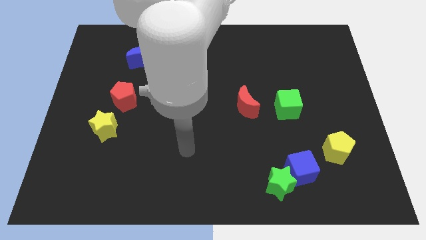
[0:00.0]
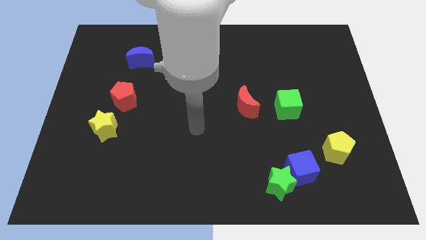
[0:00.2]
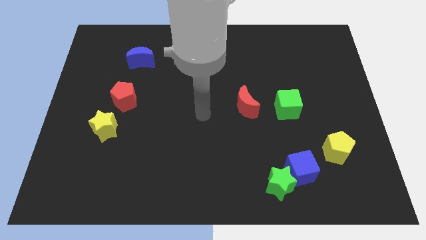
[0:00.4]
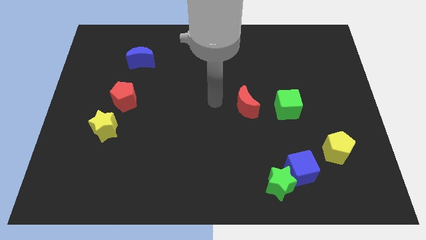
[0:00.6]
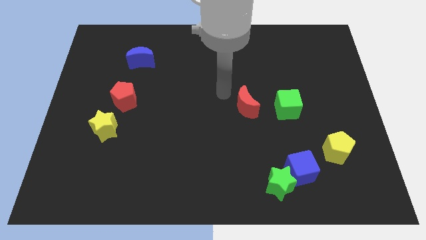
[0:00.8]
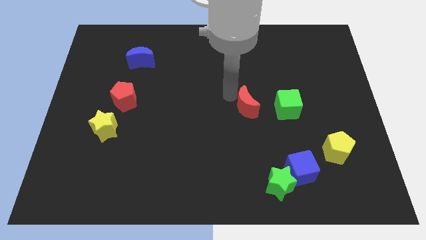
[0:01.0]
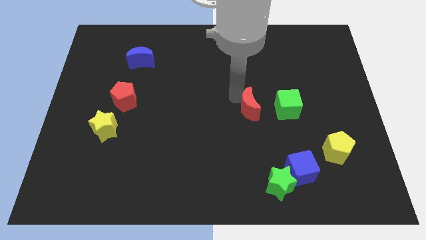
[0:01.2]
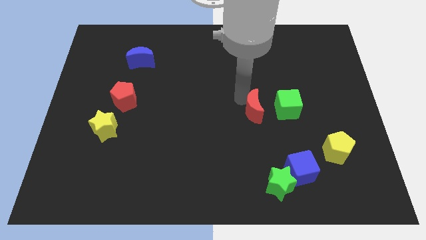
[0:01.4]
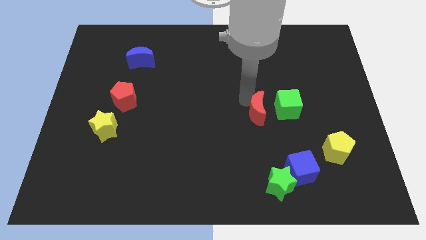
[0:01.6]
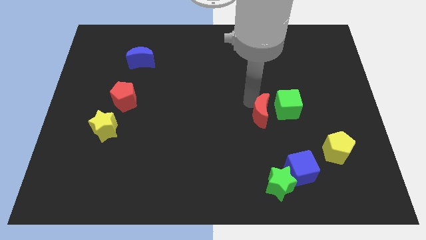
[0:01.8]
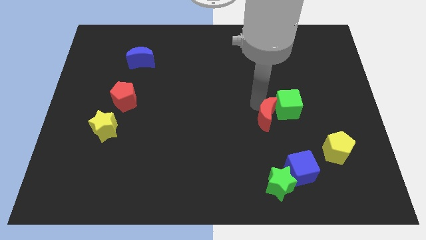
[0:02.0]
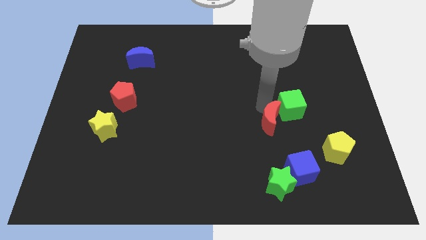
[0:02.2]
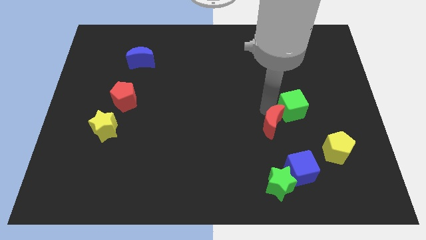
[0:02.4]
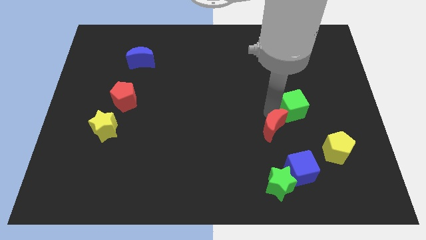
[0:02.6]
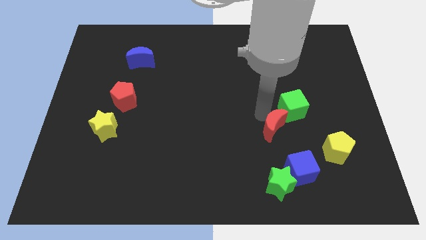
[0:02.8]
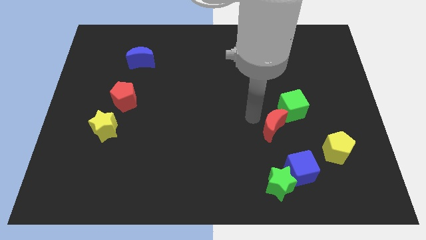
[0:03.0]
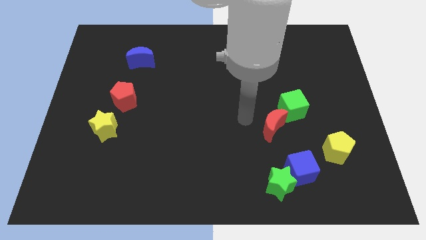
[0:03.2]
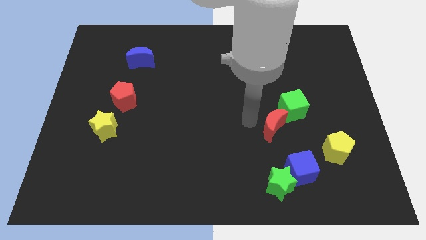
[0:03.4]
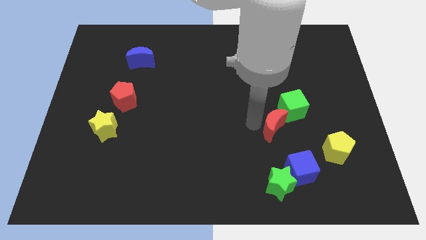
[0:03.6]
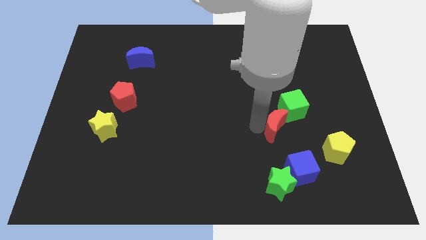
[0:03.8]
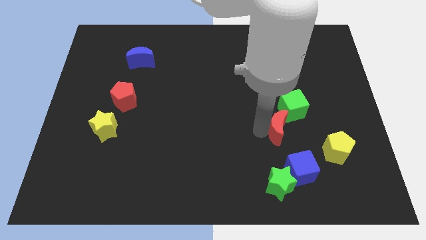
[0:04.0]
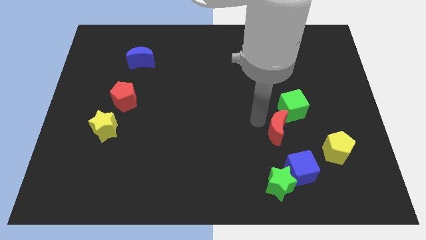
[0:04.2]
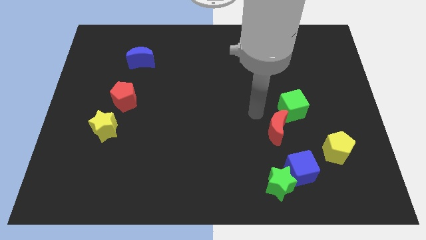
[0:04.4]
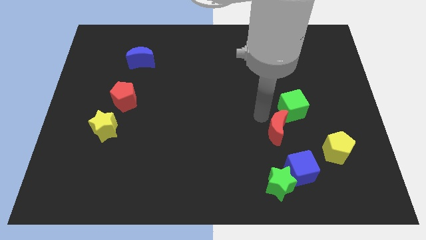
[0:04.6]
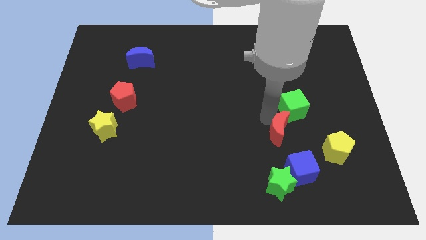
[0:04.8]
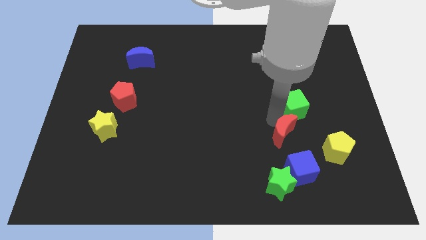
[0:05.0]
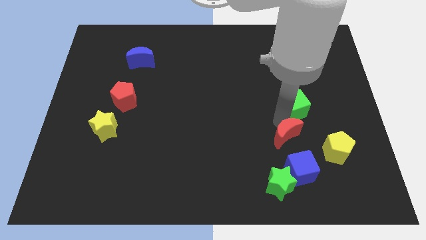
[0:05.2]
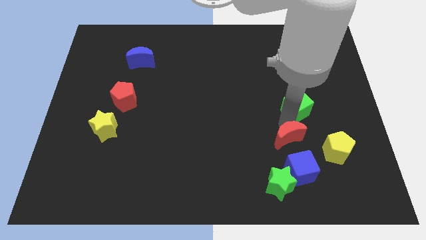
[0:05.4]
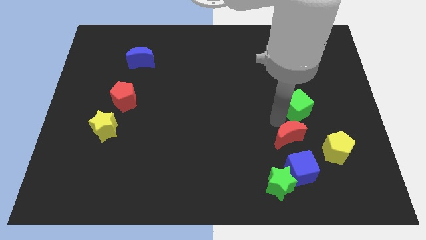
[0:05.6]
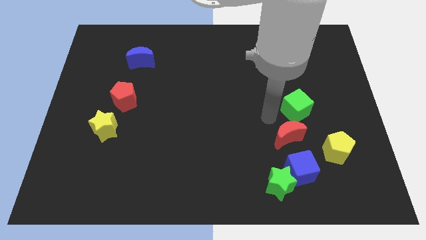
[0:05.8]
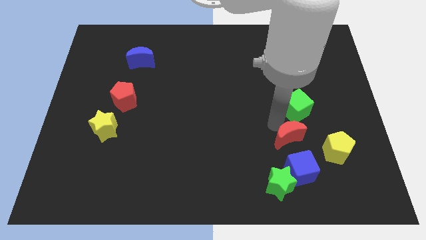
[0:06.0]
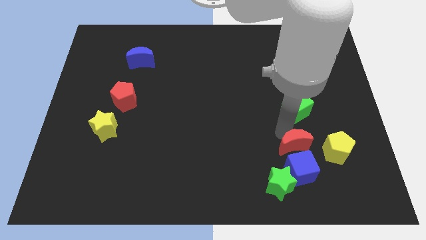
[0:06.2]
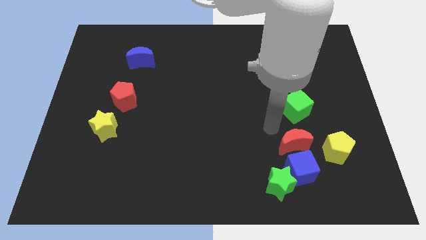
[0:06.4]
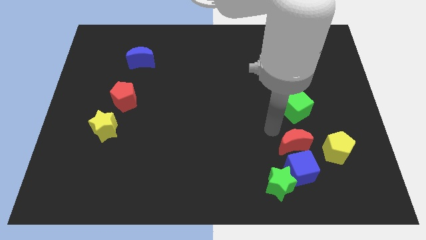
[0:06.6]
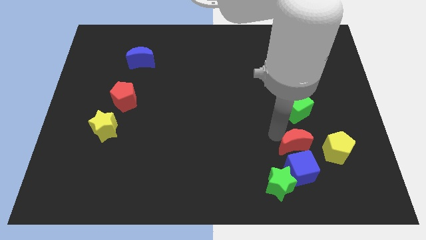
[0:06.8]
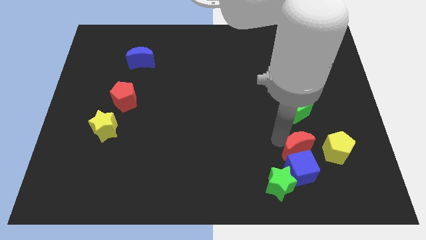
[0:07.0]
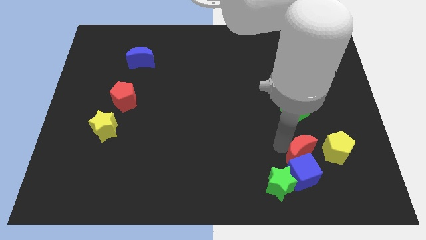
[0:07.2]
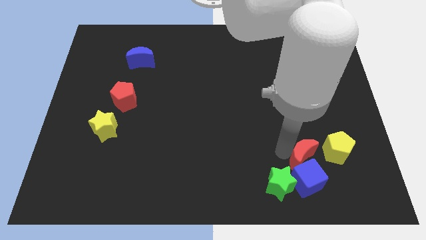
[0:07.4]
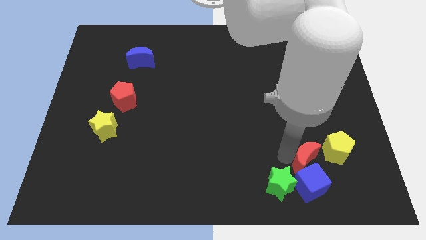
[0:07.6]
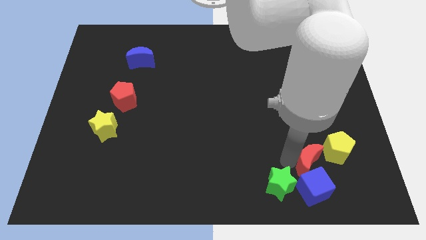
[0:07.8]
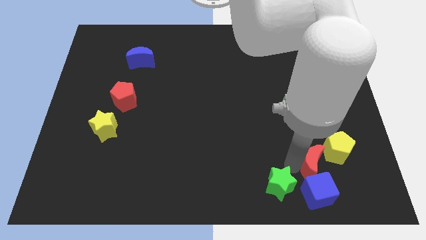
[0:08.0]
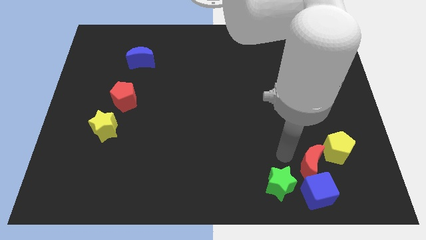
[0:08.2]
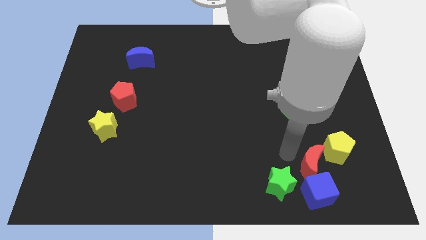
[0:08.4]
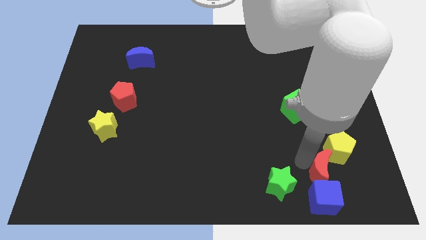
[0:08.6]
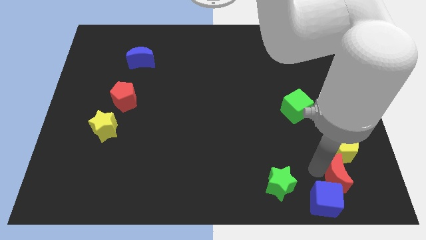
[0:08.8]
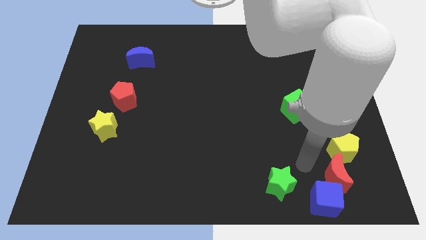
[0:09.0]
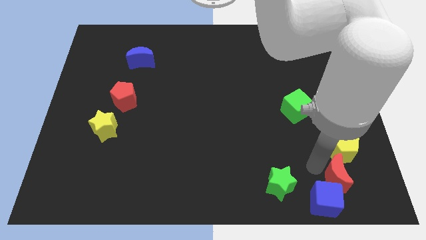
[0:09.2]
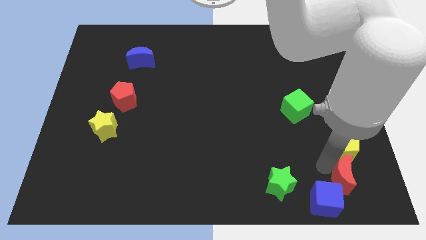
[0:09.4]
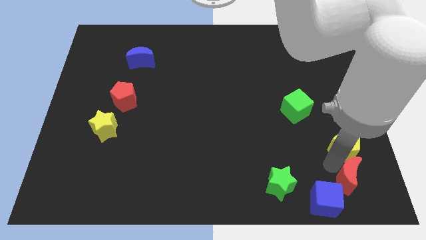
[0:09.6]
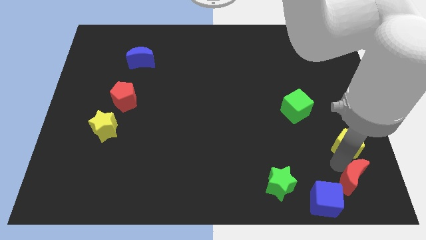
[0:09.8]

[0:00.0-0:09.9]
put the red moon to the lower right corner

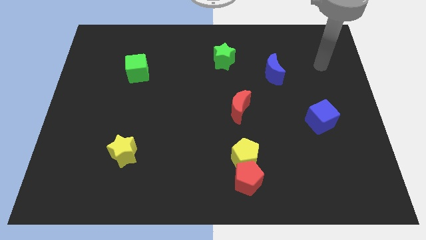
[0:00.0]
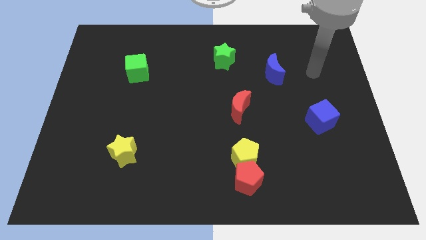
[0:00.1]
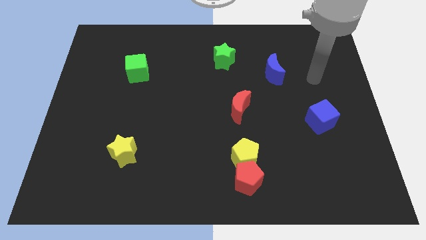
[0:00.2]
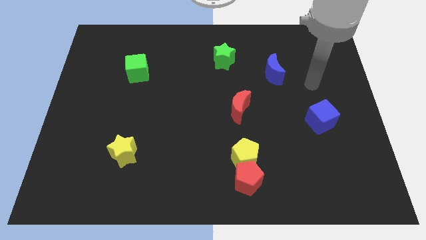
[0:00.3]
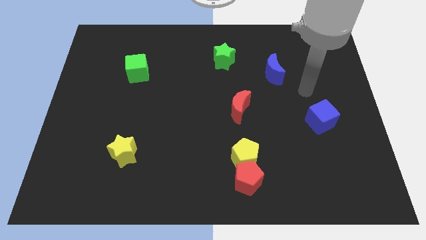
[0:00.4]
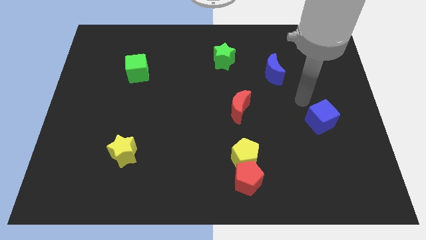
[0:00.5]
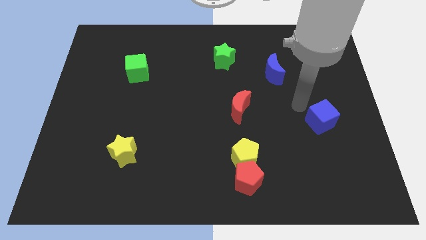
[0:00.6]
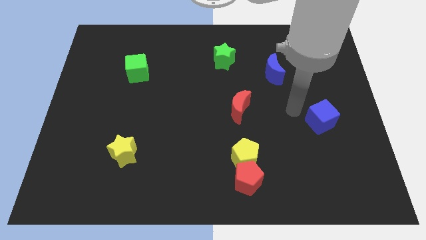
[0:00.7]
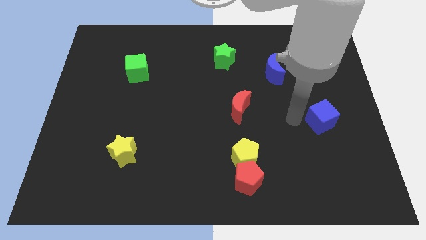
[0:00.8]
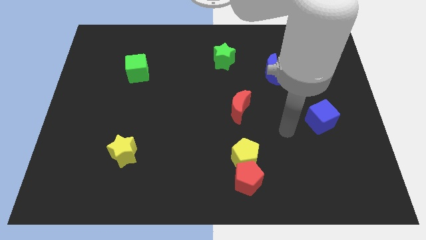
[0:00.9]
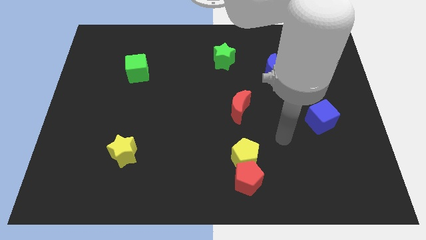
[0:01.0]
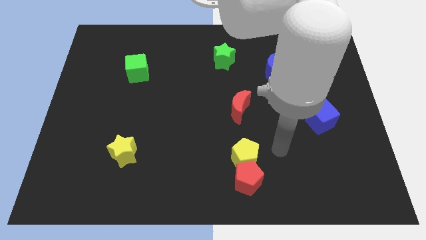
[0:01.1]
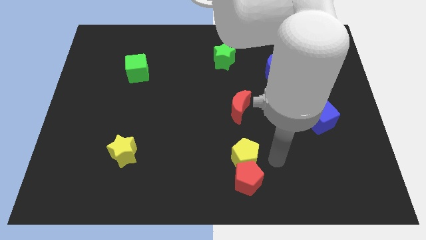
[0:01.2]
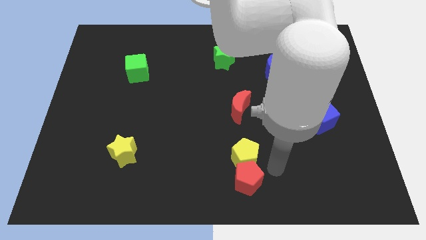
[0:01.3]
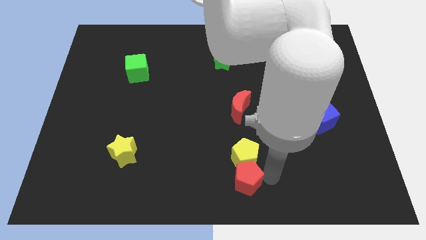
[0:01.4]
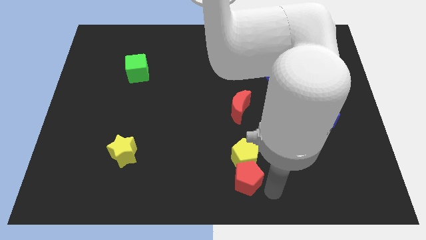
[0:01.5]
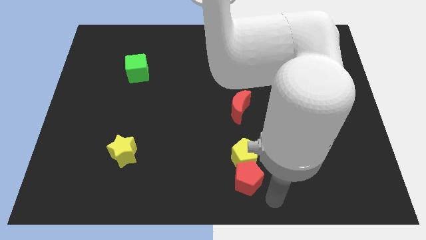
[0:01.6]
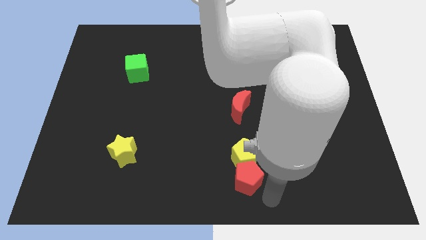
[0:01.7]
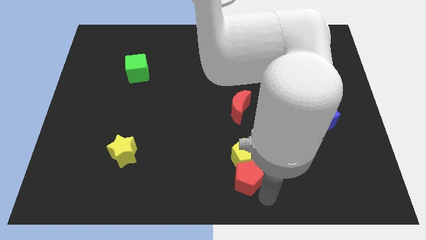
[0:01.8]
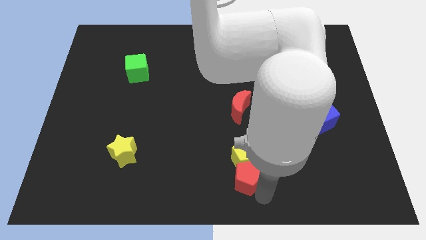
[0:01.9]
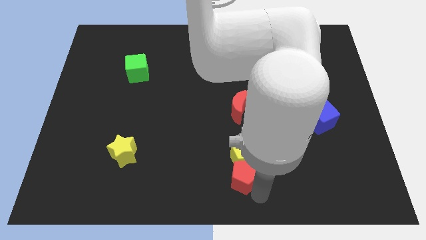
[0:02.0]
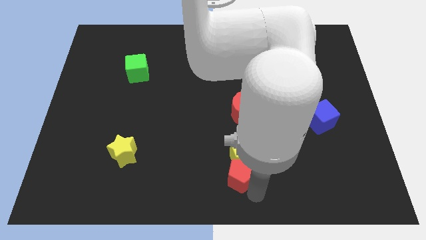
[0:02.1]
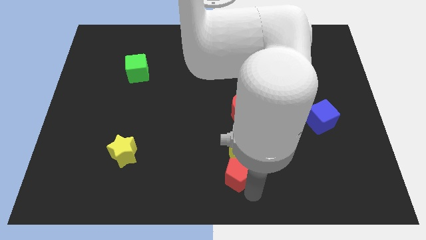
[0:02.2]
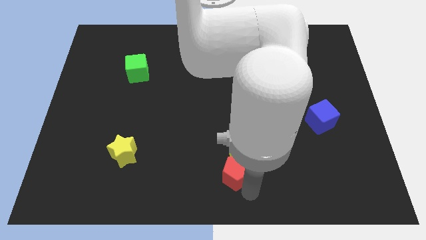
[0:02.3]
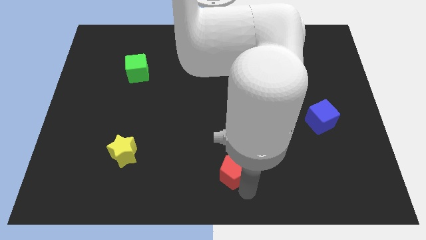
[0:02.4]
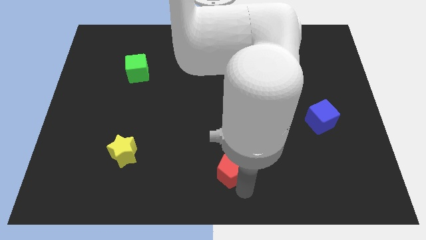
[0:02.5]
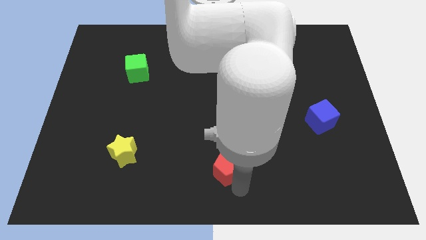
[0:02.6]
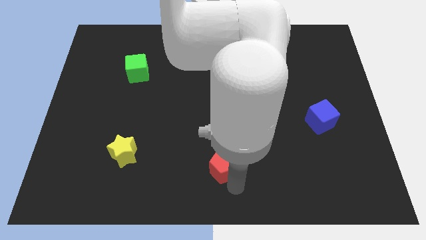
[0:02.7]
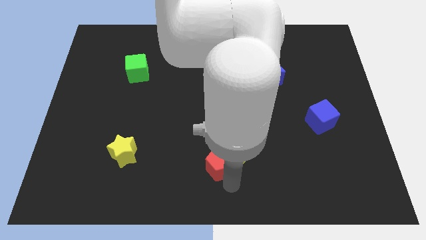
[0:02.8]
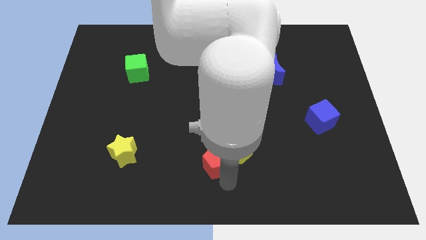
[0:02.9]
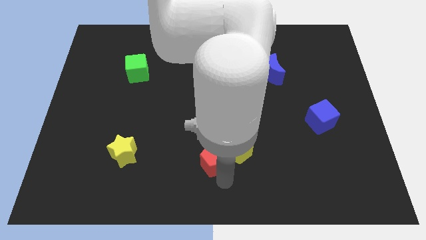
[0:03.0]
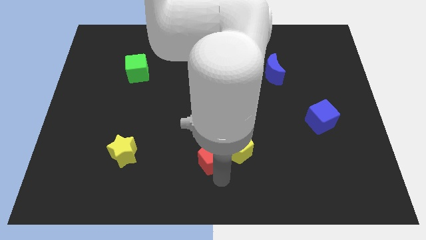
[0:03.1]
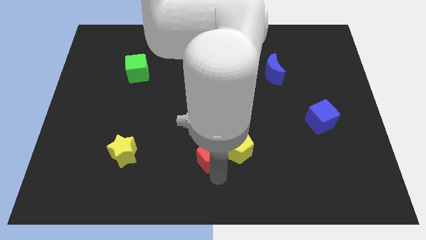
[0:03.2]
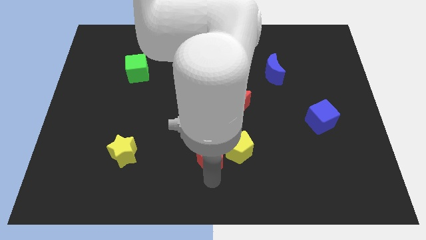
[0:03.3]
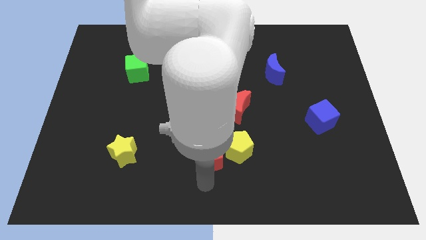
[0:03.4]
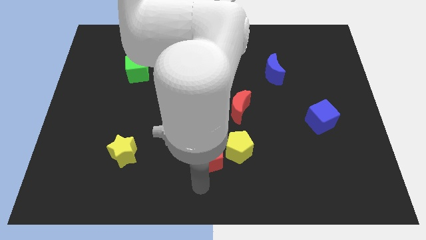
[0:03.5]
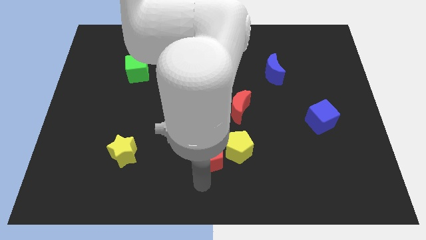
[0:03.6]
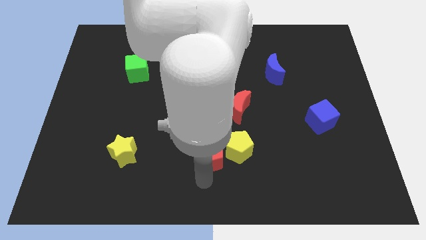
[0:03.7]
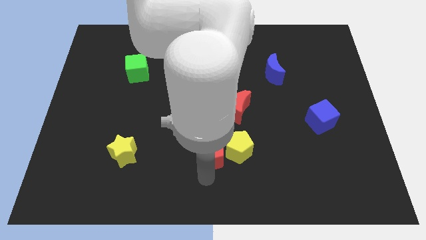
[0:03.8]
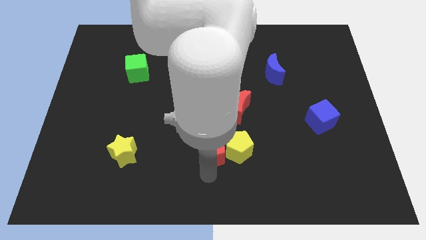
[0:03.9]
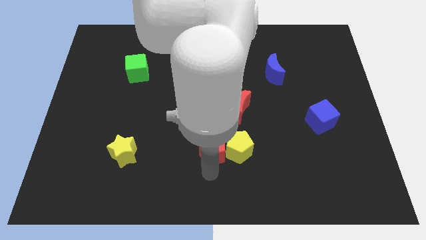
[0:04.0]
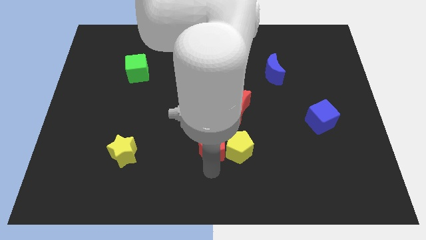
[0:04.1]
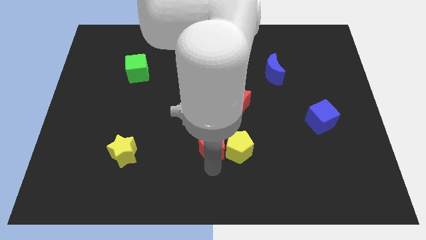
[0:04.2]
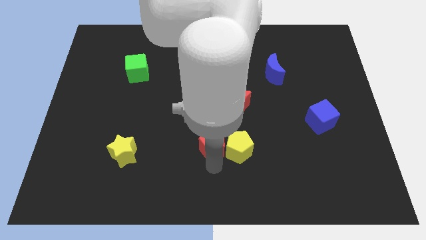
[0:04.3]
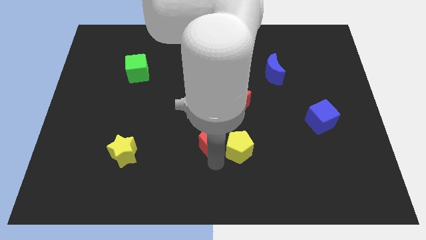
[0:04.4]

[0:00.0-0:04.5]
push the red pentagon to the middle of the board
